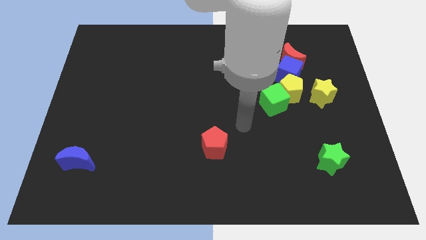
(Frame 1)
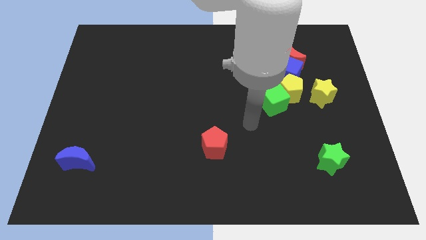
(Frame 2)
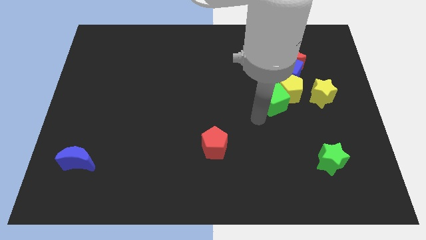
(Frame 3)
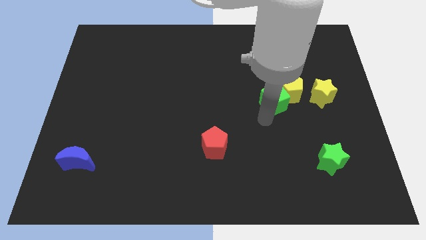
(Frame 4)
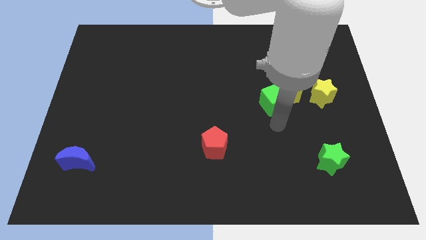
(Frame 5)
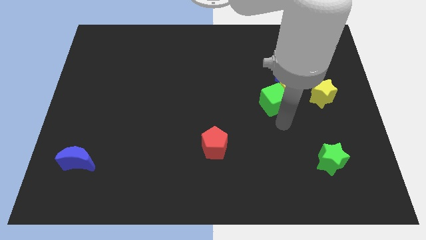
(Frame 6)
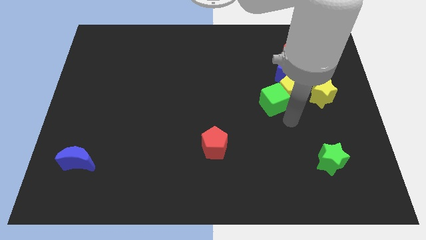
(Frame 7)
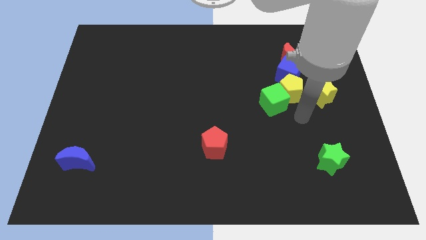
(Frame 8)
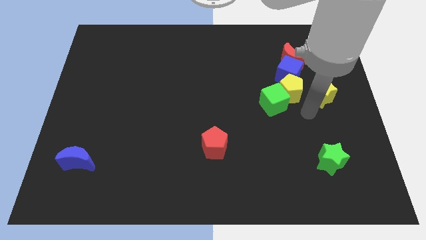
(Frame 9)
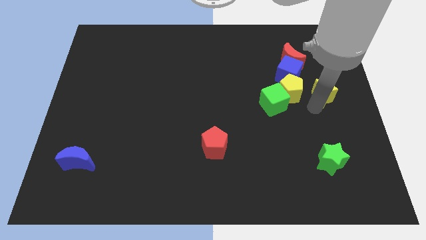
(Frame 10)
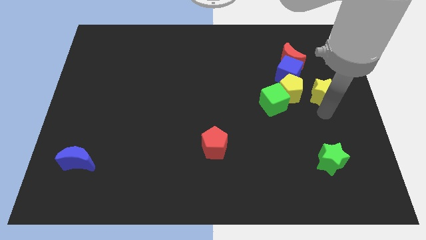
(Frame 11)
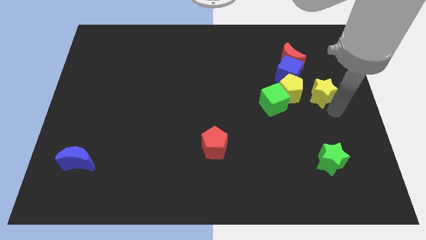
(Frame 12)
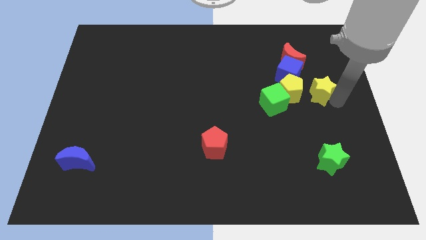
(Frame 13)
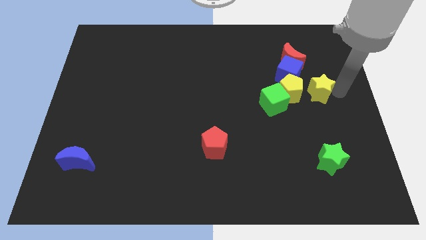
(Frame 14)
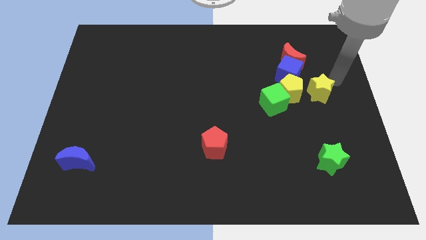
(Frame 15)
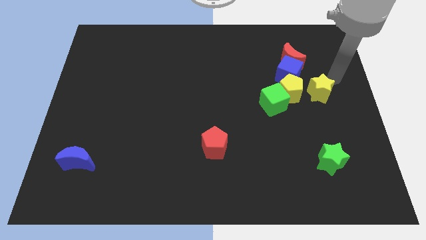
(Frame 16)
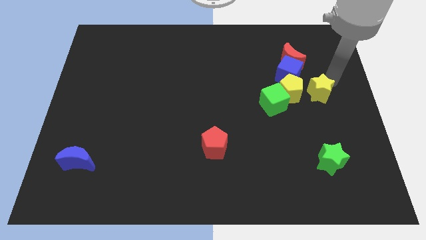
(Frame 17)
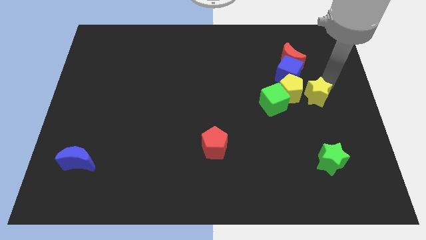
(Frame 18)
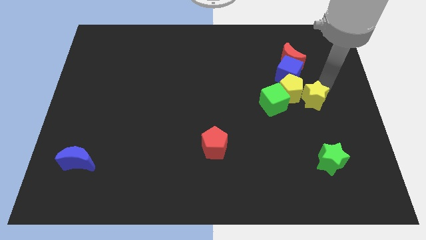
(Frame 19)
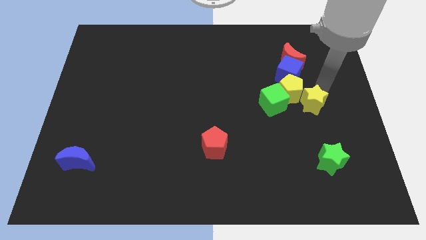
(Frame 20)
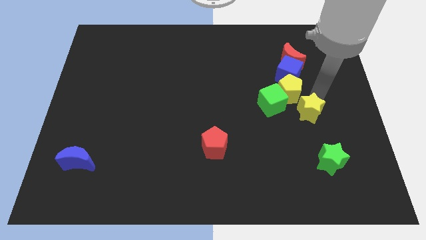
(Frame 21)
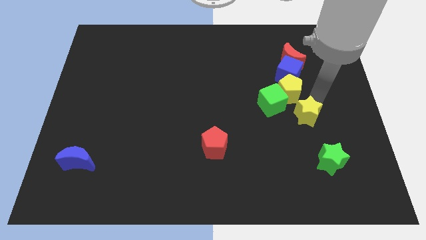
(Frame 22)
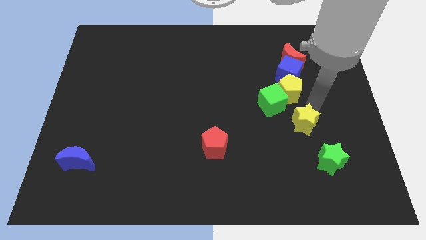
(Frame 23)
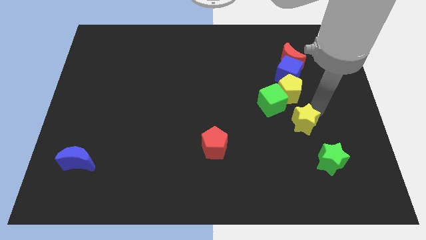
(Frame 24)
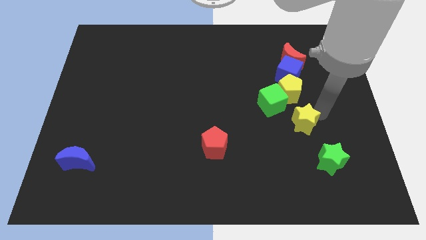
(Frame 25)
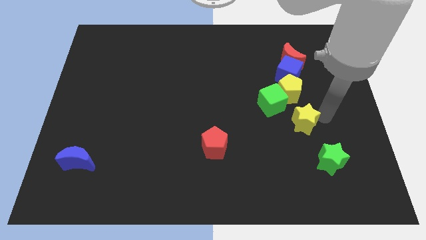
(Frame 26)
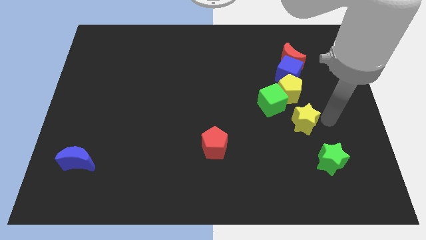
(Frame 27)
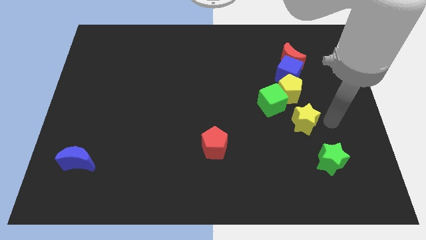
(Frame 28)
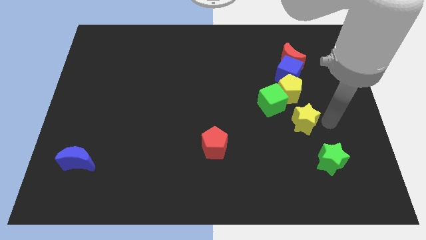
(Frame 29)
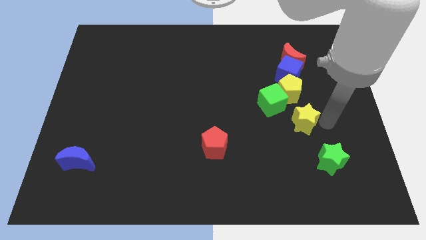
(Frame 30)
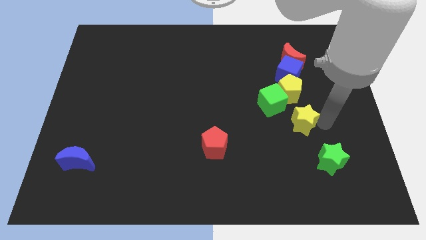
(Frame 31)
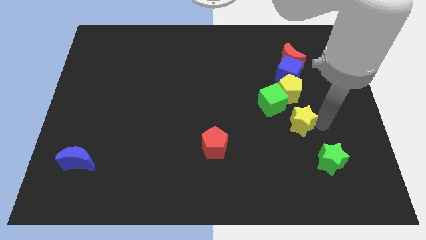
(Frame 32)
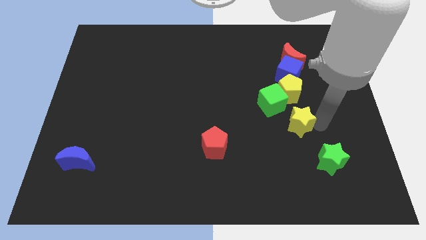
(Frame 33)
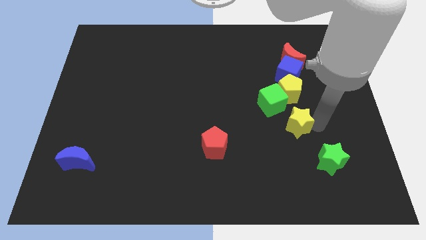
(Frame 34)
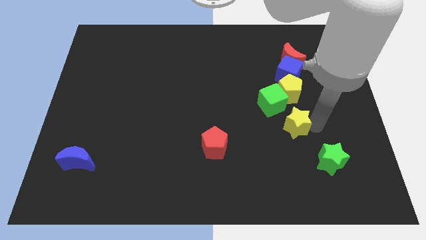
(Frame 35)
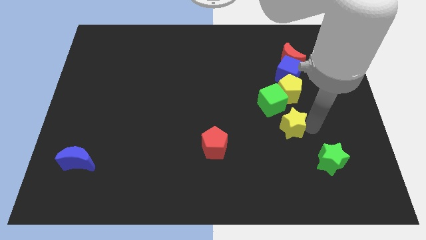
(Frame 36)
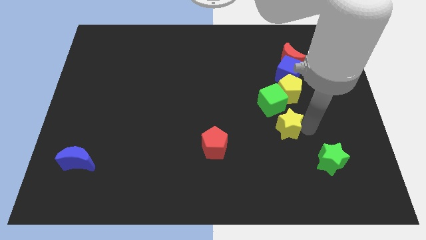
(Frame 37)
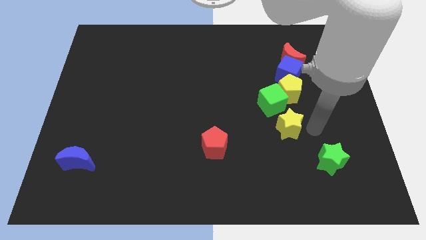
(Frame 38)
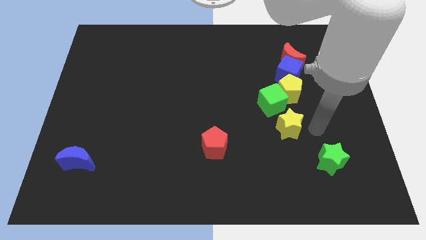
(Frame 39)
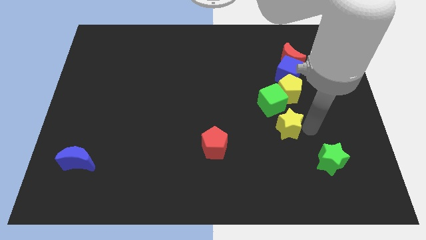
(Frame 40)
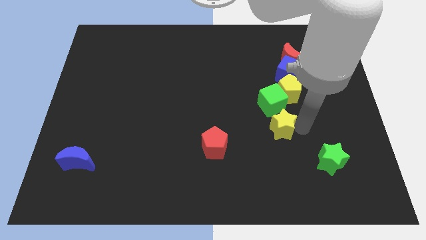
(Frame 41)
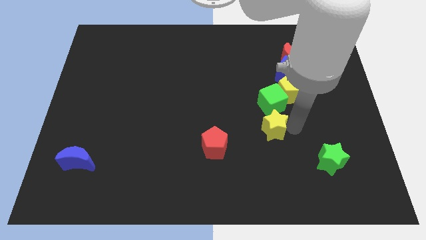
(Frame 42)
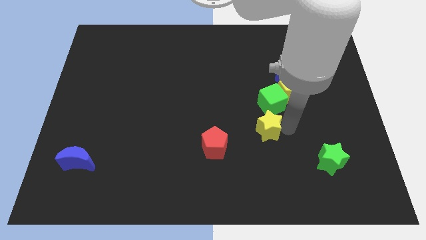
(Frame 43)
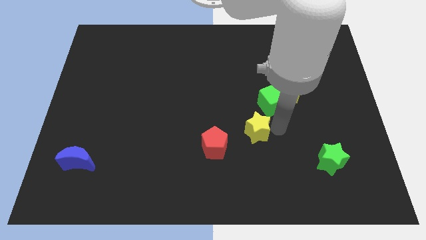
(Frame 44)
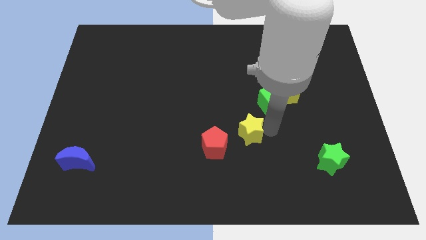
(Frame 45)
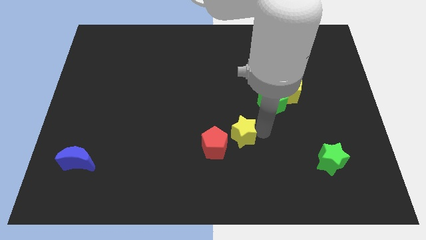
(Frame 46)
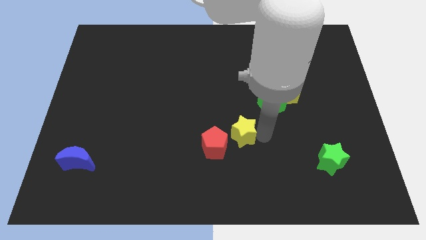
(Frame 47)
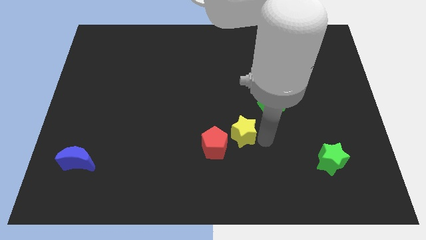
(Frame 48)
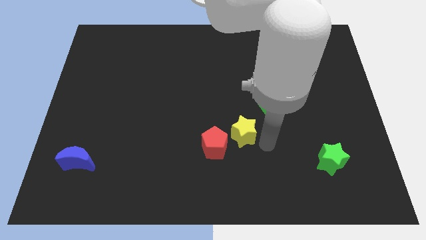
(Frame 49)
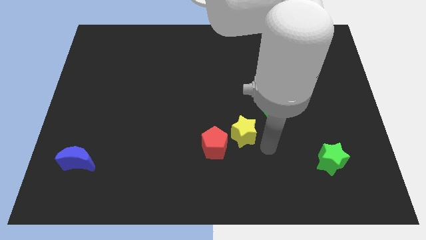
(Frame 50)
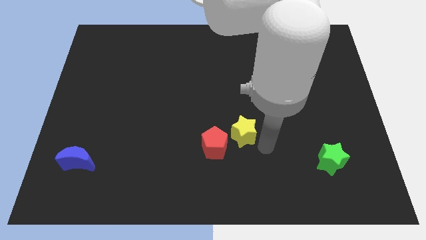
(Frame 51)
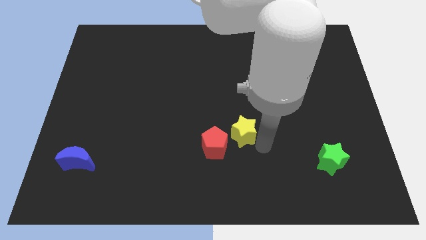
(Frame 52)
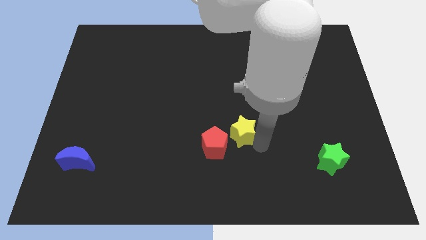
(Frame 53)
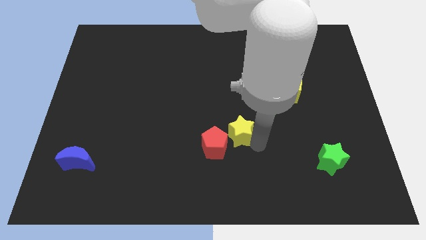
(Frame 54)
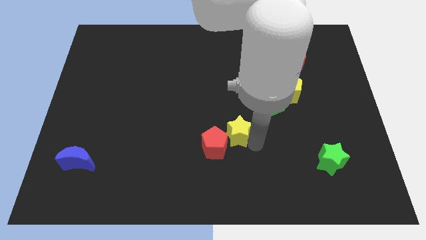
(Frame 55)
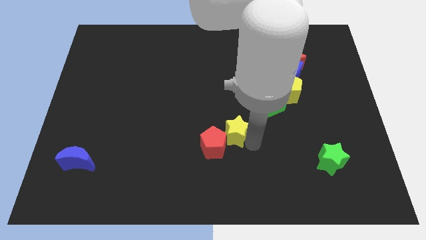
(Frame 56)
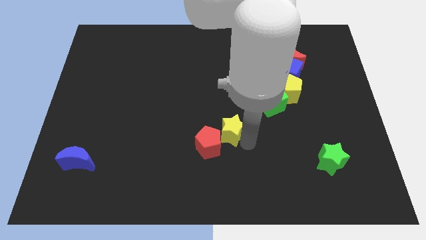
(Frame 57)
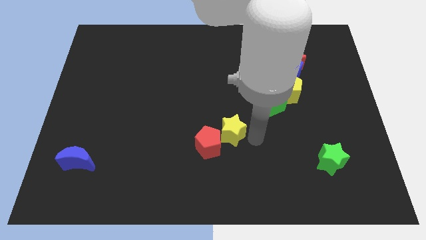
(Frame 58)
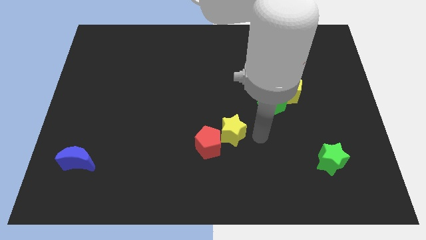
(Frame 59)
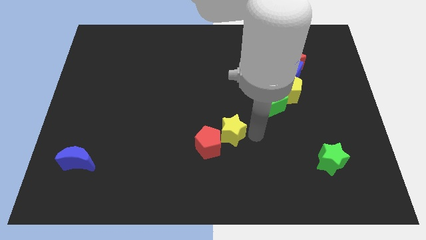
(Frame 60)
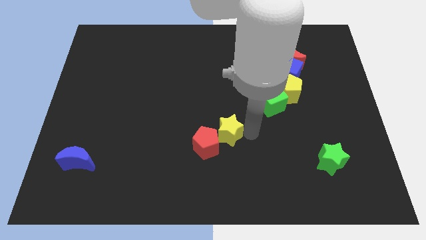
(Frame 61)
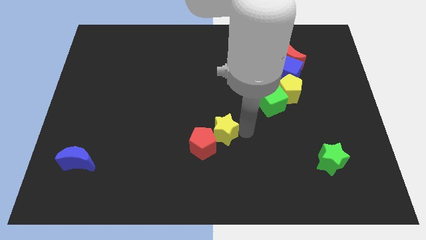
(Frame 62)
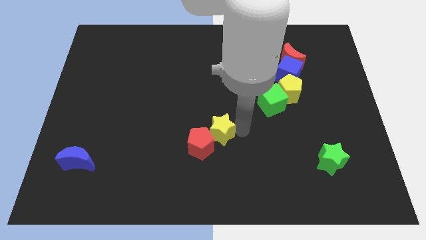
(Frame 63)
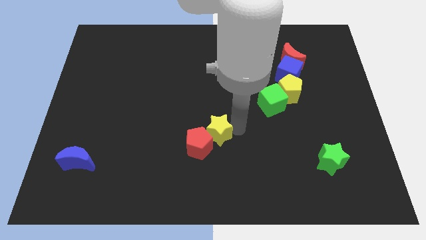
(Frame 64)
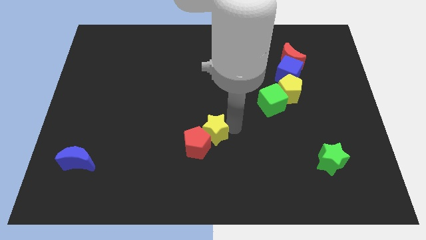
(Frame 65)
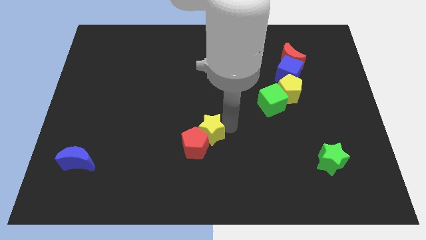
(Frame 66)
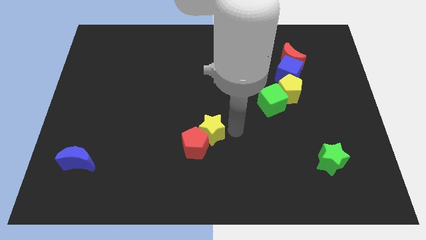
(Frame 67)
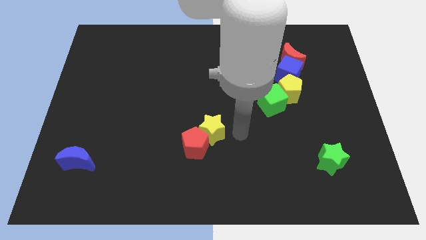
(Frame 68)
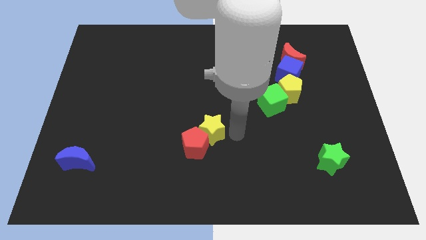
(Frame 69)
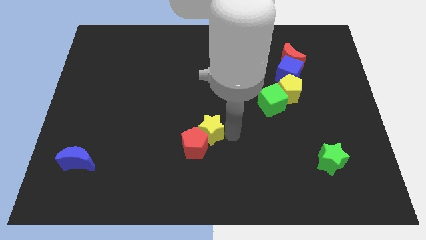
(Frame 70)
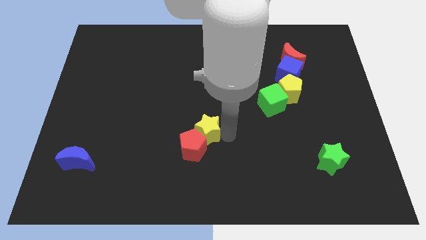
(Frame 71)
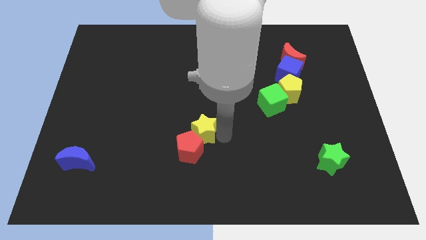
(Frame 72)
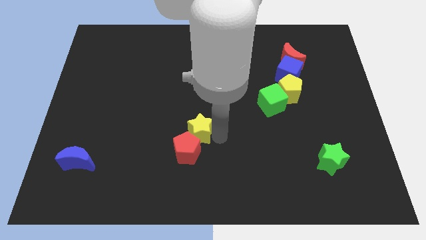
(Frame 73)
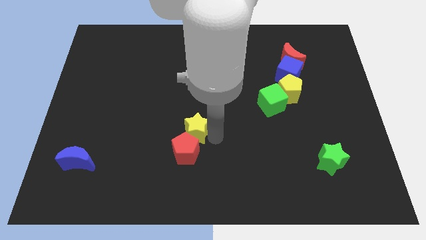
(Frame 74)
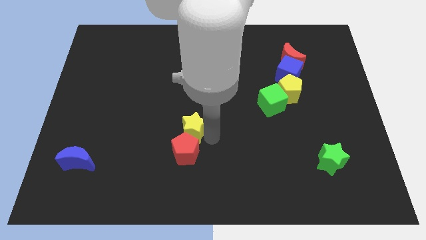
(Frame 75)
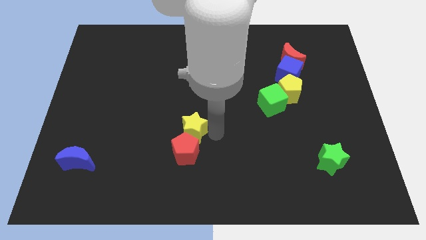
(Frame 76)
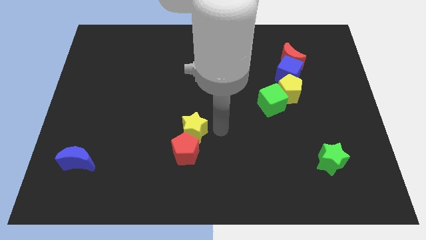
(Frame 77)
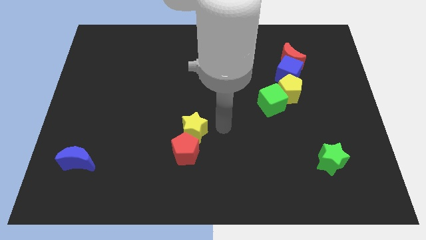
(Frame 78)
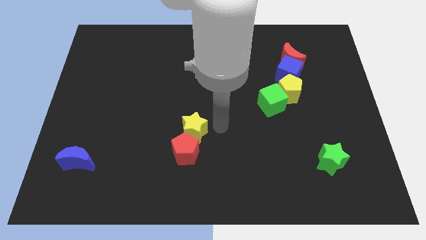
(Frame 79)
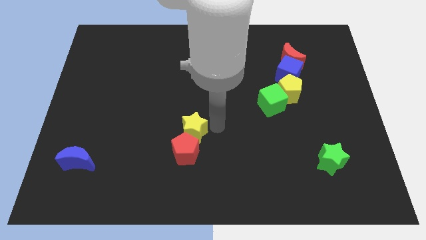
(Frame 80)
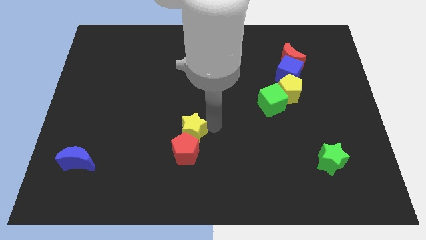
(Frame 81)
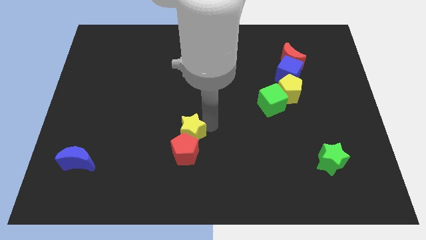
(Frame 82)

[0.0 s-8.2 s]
move the yellow star diagonally up and to the left of the red pentagon
